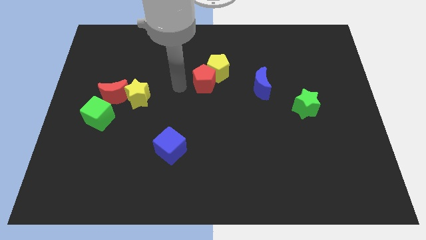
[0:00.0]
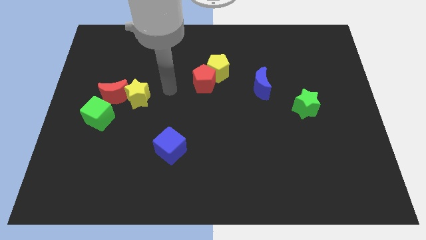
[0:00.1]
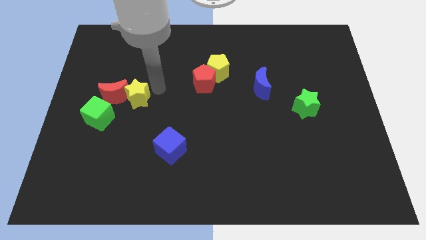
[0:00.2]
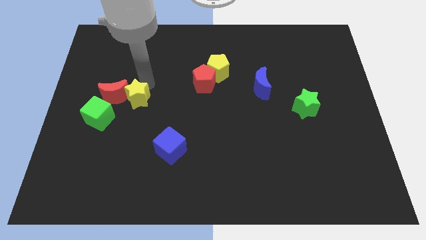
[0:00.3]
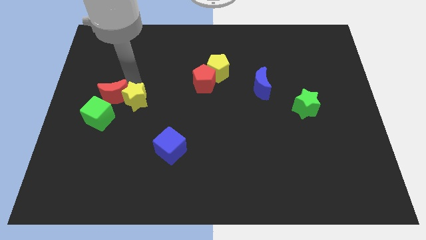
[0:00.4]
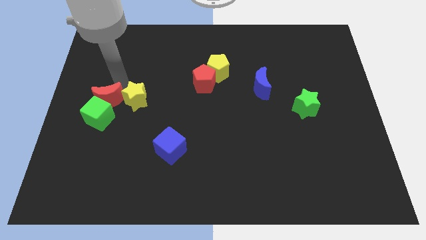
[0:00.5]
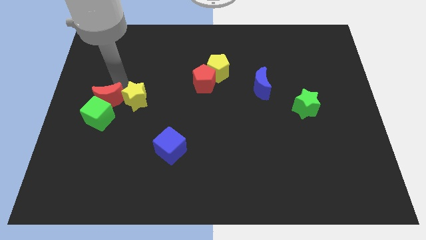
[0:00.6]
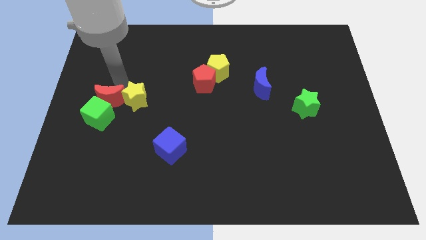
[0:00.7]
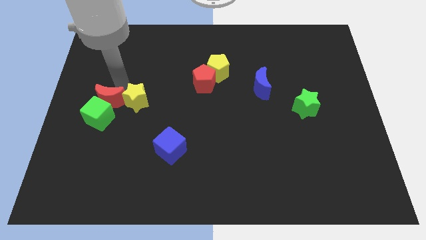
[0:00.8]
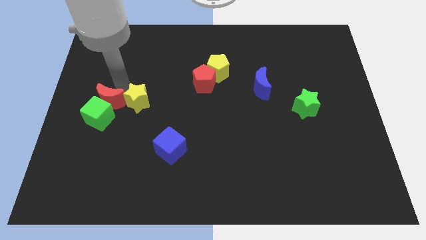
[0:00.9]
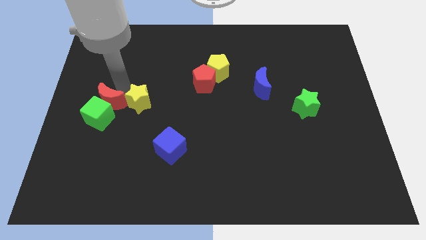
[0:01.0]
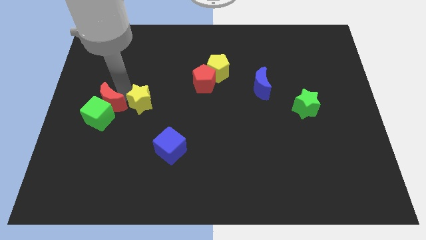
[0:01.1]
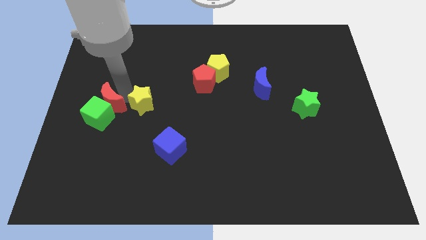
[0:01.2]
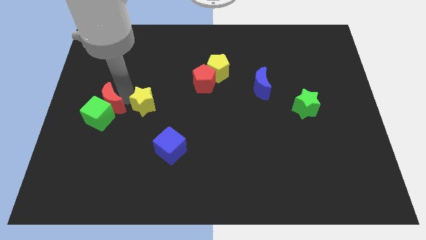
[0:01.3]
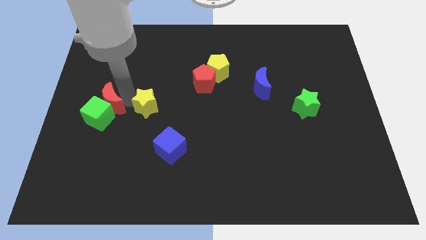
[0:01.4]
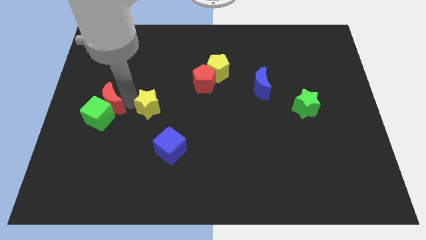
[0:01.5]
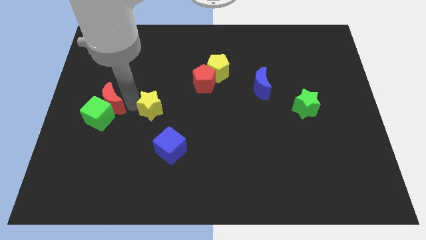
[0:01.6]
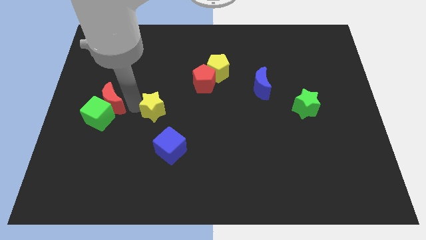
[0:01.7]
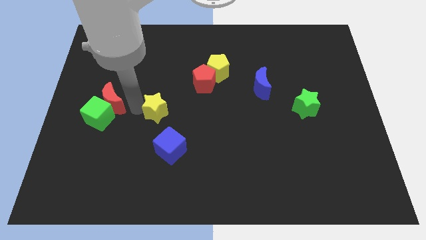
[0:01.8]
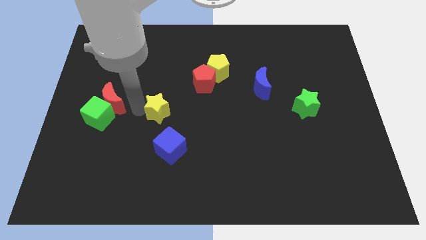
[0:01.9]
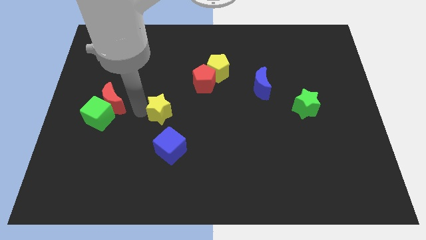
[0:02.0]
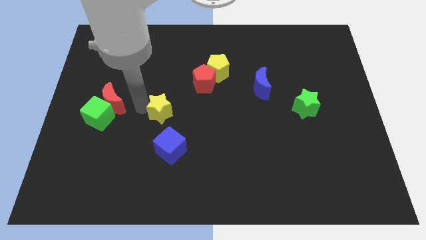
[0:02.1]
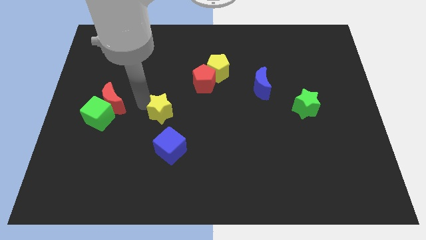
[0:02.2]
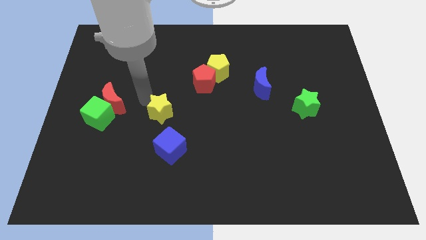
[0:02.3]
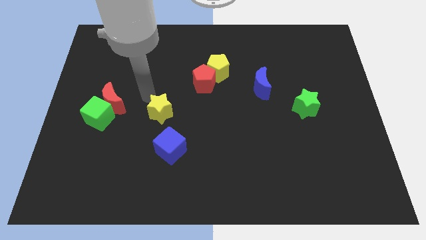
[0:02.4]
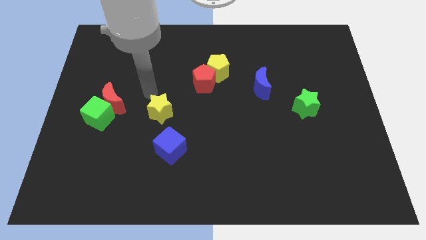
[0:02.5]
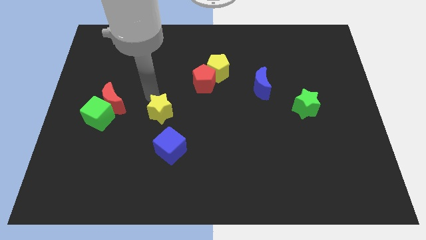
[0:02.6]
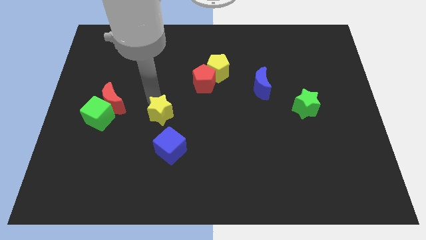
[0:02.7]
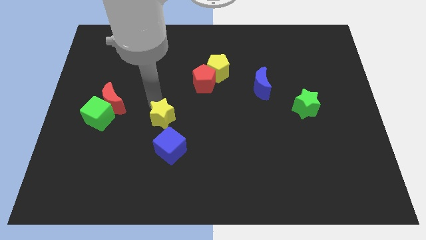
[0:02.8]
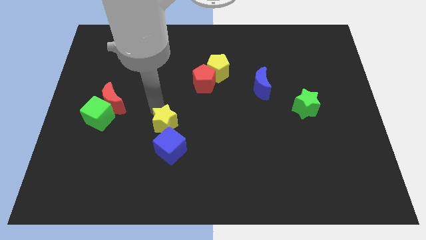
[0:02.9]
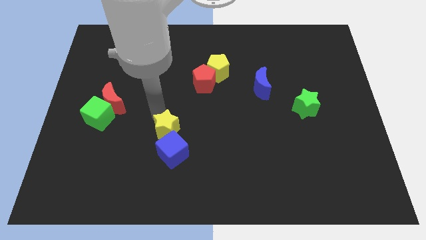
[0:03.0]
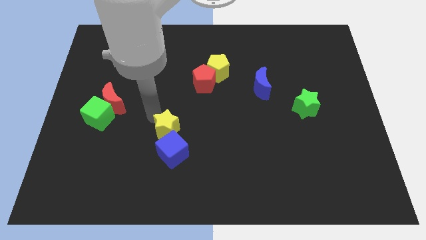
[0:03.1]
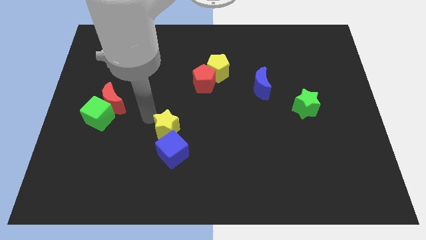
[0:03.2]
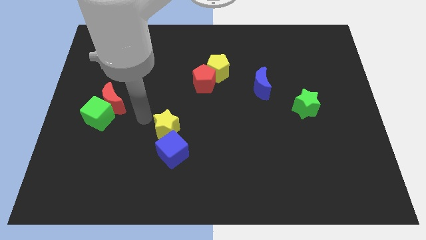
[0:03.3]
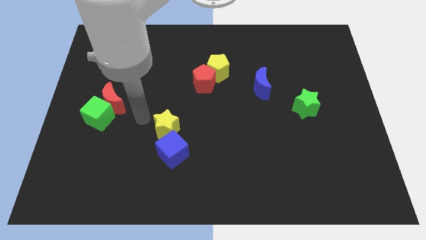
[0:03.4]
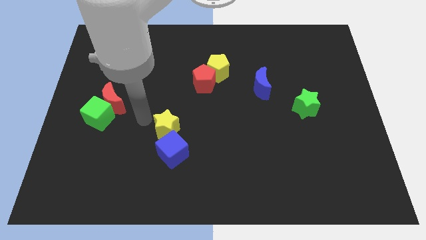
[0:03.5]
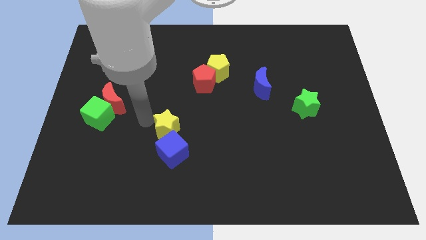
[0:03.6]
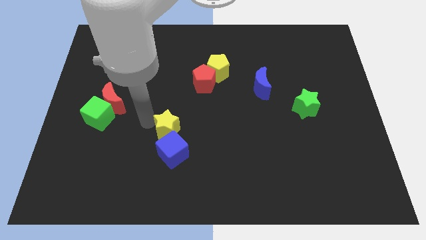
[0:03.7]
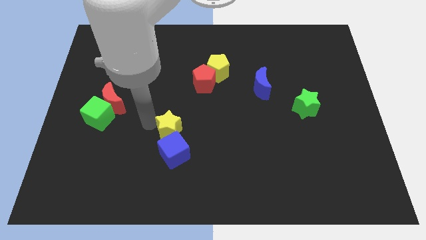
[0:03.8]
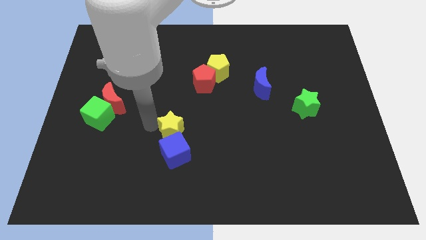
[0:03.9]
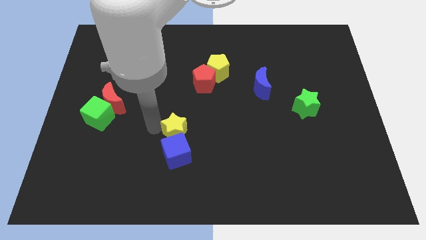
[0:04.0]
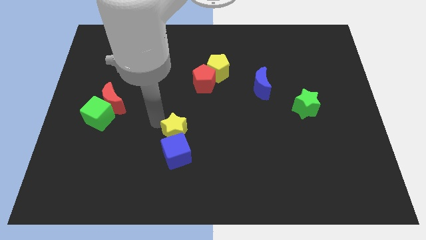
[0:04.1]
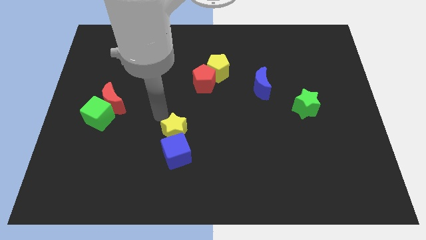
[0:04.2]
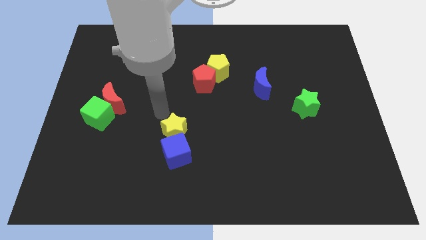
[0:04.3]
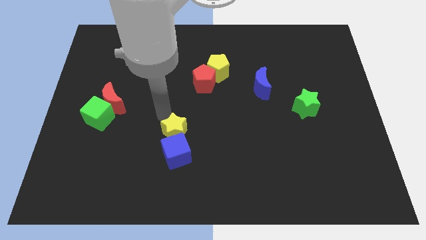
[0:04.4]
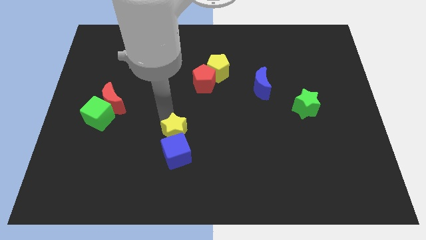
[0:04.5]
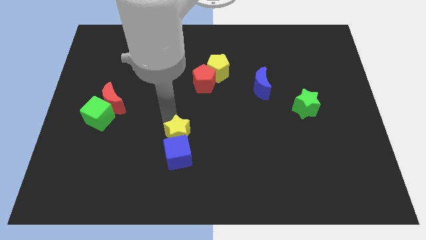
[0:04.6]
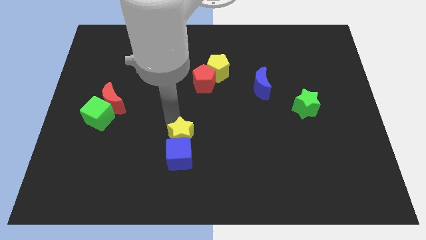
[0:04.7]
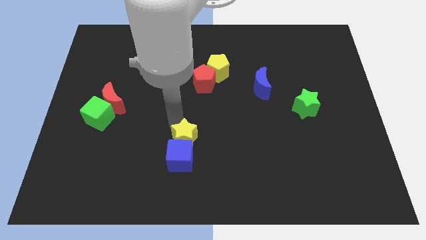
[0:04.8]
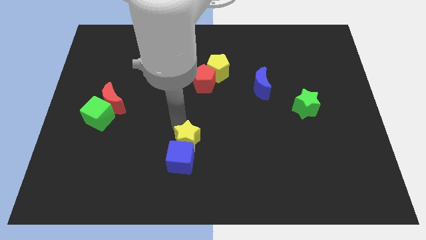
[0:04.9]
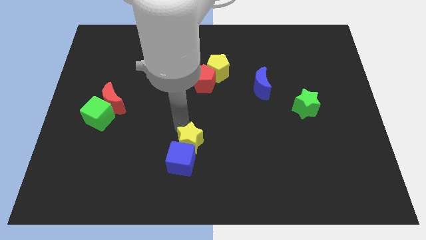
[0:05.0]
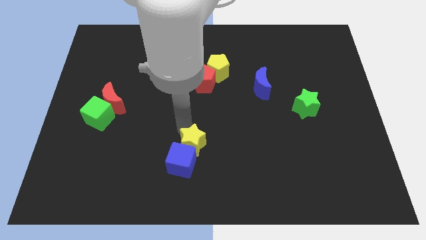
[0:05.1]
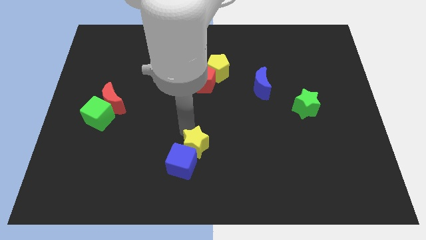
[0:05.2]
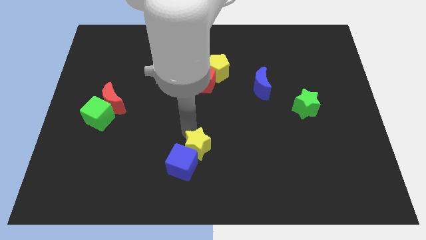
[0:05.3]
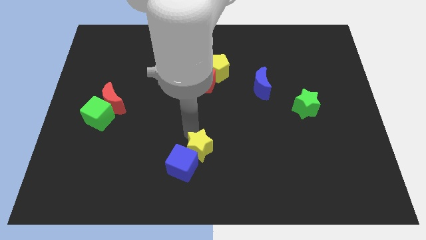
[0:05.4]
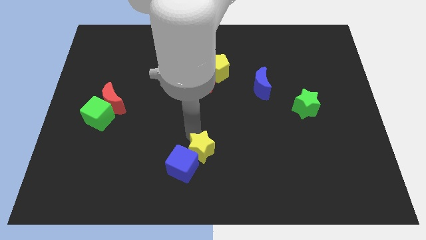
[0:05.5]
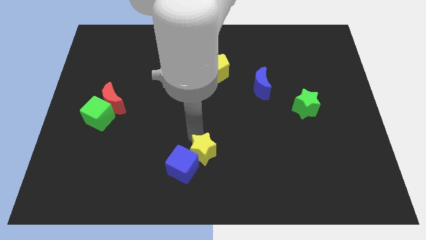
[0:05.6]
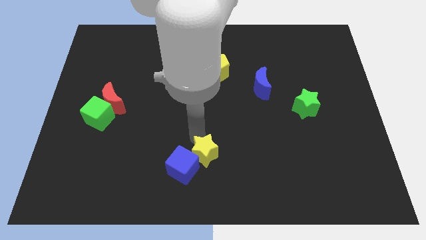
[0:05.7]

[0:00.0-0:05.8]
push the yellow star to the bottom side
